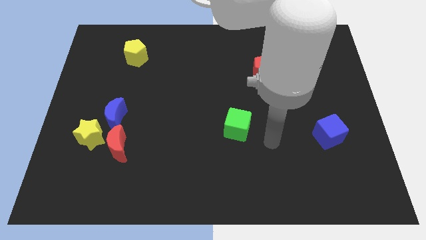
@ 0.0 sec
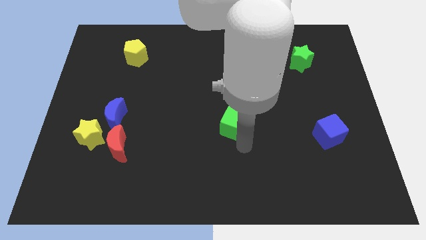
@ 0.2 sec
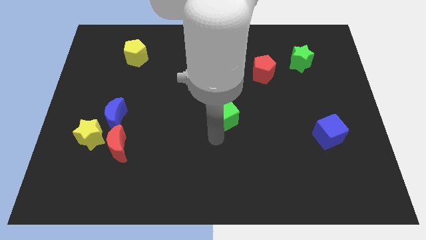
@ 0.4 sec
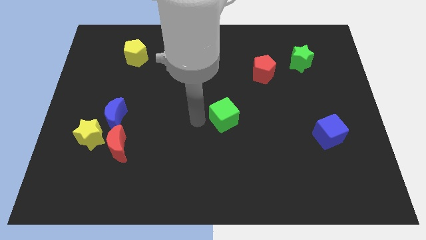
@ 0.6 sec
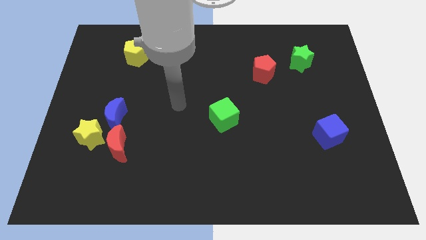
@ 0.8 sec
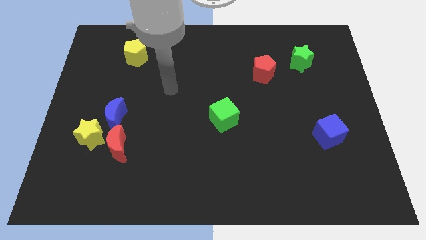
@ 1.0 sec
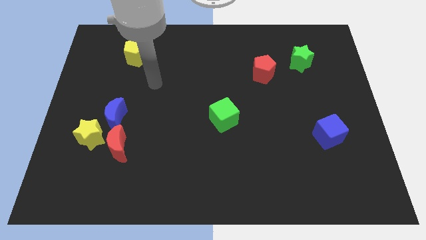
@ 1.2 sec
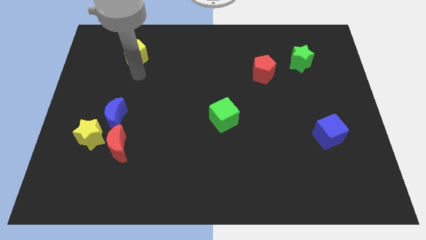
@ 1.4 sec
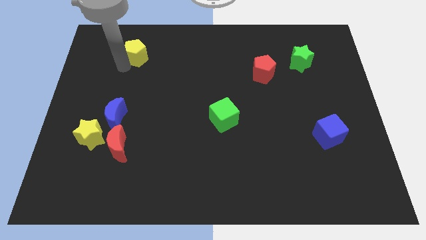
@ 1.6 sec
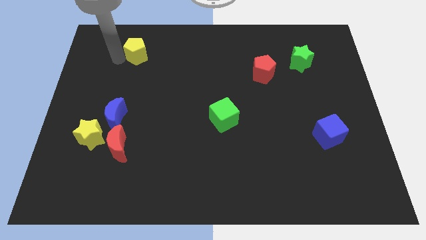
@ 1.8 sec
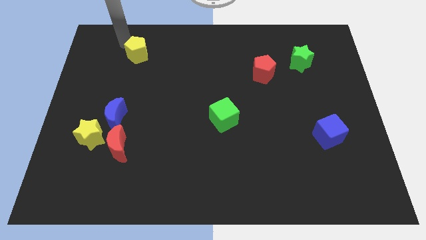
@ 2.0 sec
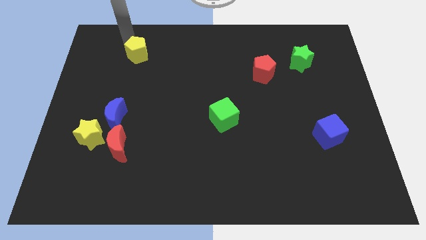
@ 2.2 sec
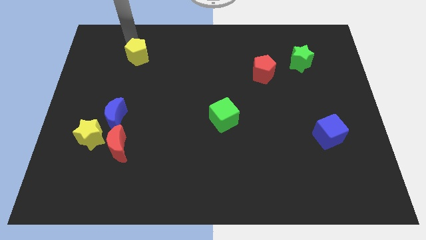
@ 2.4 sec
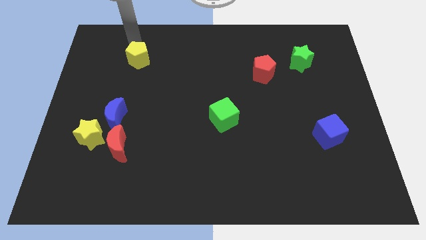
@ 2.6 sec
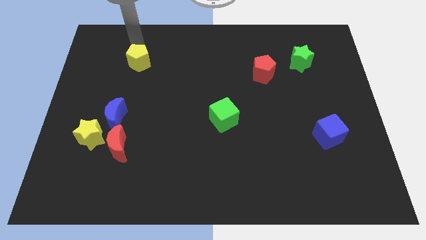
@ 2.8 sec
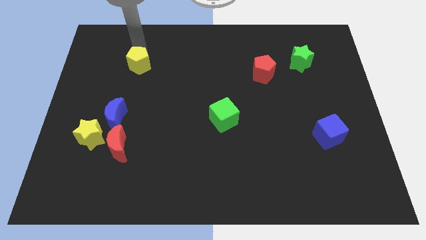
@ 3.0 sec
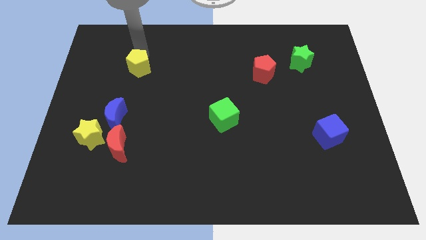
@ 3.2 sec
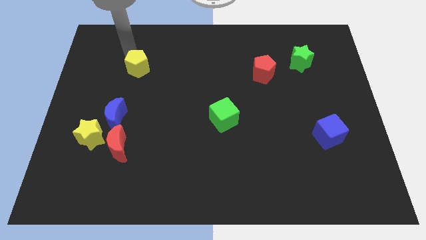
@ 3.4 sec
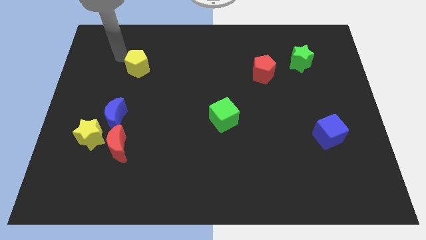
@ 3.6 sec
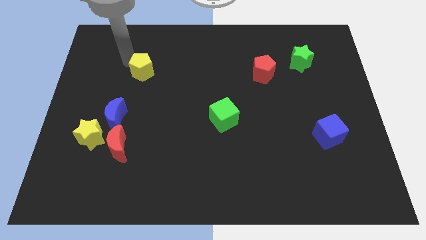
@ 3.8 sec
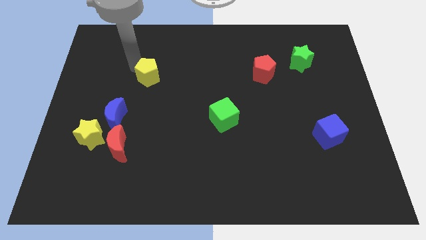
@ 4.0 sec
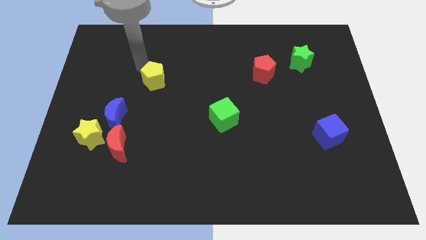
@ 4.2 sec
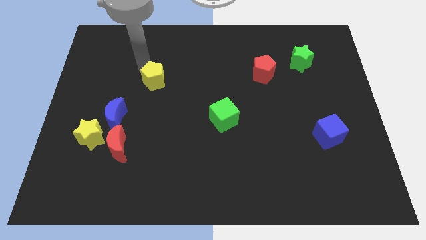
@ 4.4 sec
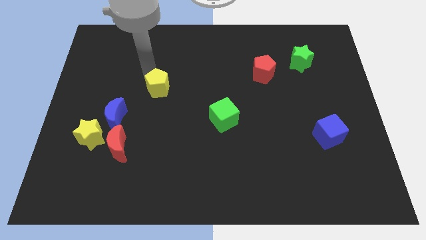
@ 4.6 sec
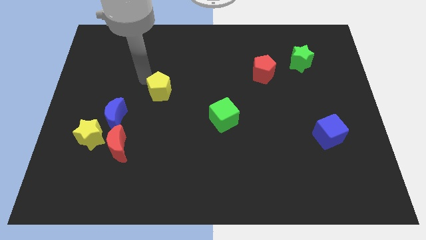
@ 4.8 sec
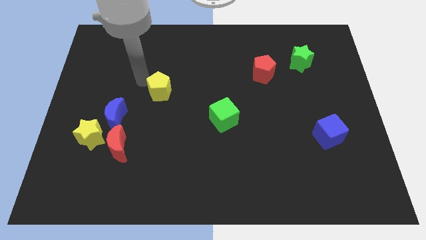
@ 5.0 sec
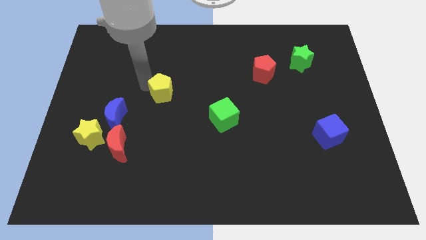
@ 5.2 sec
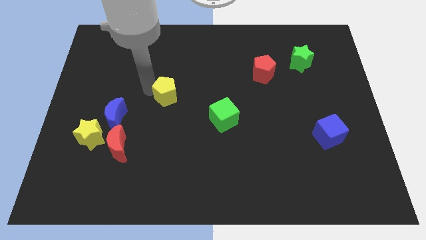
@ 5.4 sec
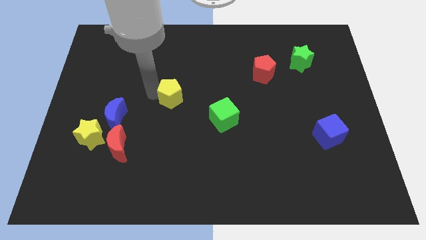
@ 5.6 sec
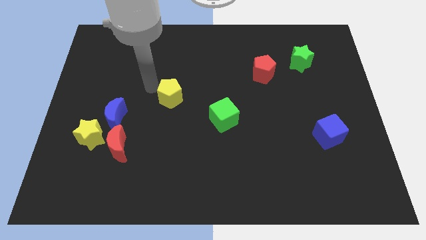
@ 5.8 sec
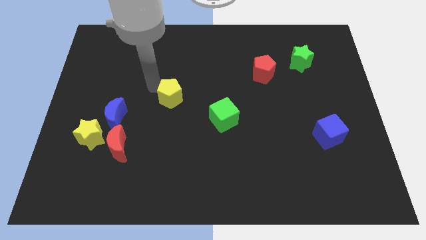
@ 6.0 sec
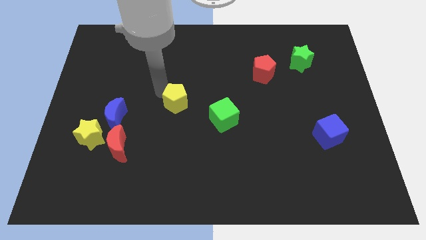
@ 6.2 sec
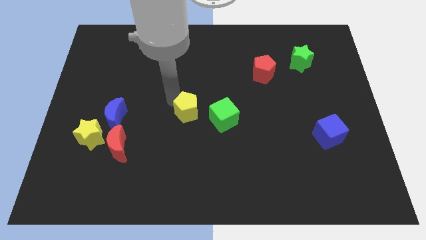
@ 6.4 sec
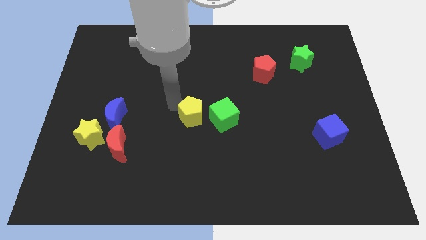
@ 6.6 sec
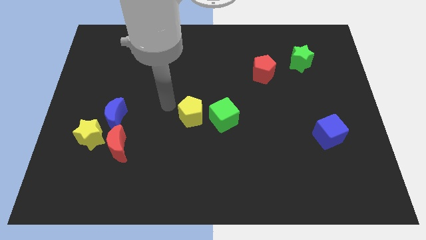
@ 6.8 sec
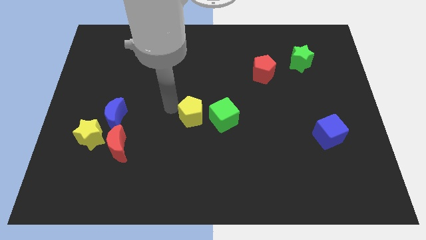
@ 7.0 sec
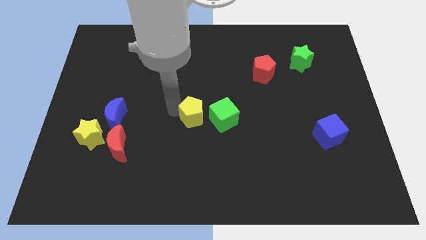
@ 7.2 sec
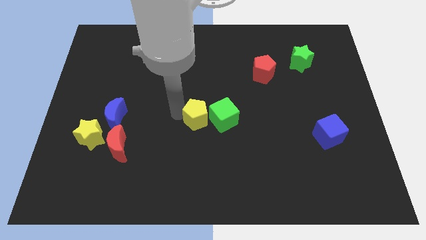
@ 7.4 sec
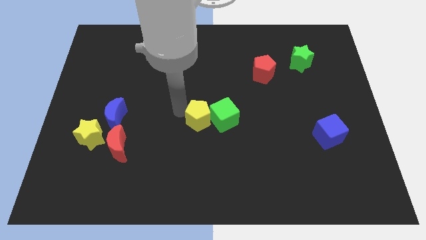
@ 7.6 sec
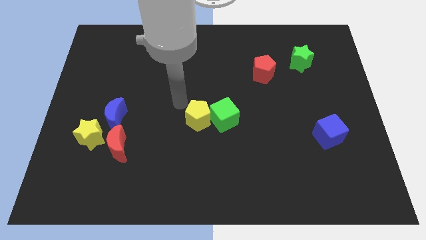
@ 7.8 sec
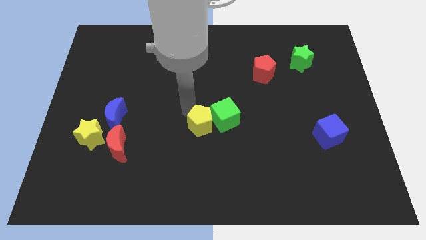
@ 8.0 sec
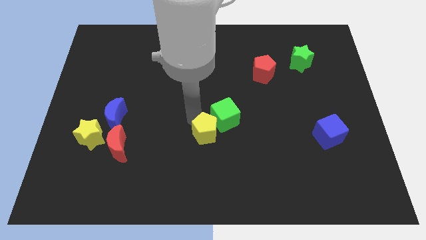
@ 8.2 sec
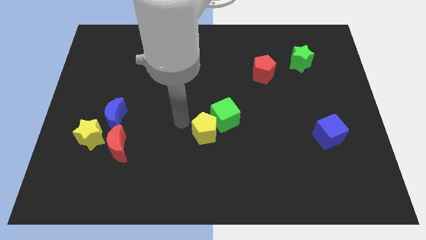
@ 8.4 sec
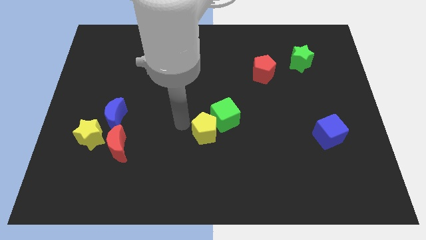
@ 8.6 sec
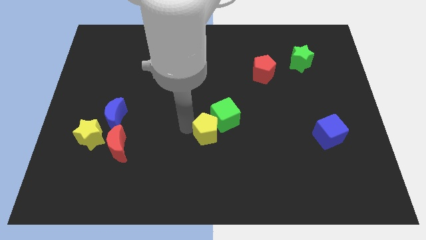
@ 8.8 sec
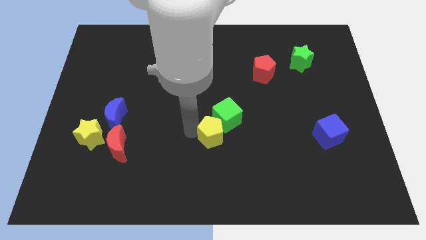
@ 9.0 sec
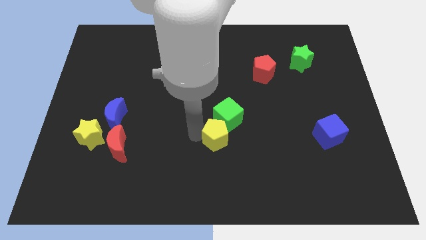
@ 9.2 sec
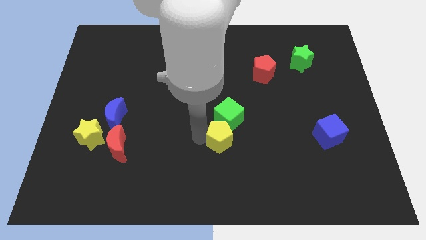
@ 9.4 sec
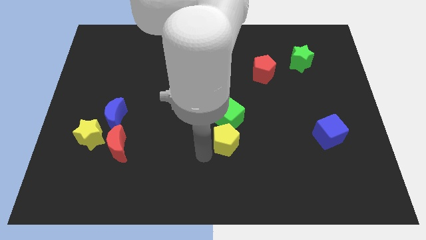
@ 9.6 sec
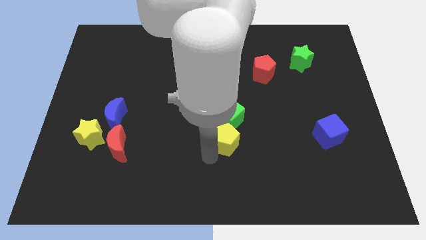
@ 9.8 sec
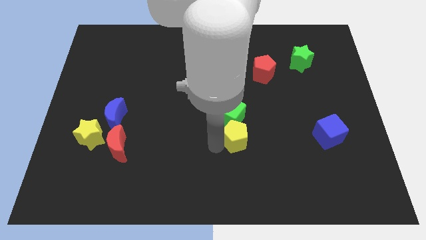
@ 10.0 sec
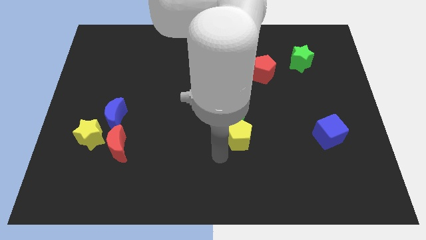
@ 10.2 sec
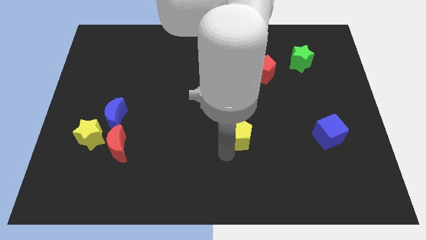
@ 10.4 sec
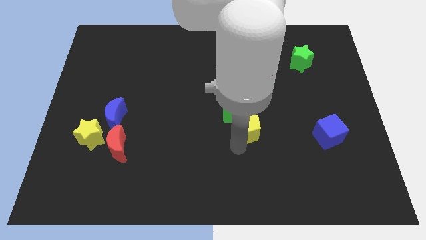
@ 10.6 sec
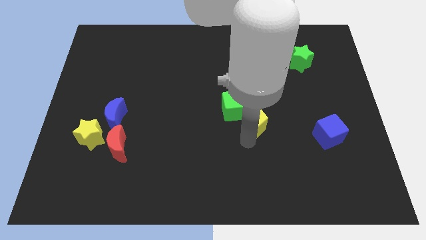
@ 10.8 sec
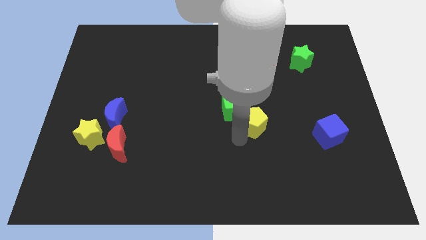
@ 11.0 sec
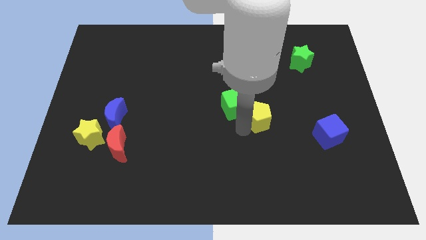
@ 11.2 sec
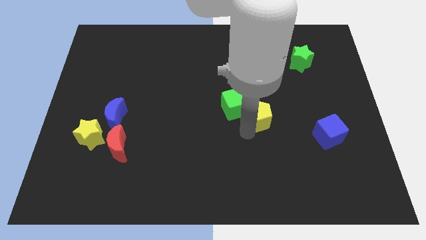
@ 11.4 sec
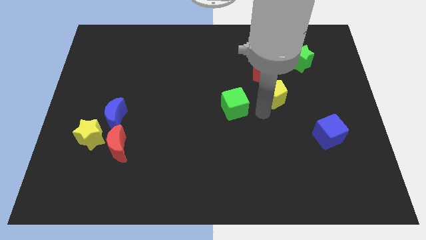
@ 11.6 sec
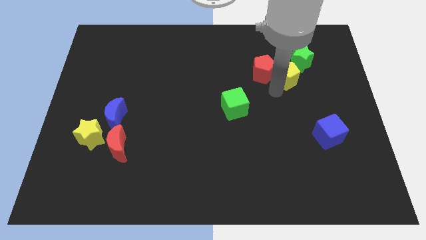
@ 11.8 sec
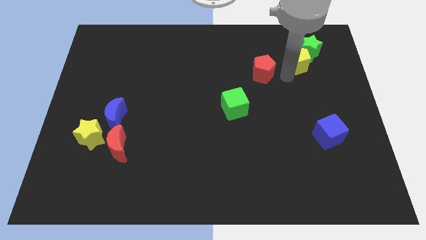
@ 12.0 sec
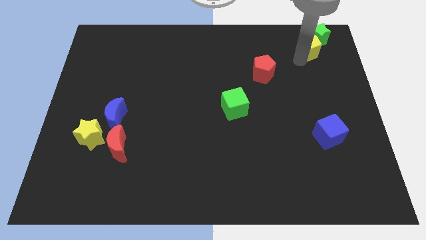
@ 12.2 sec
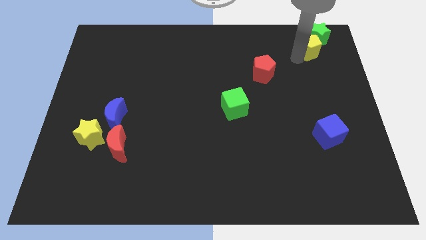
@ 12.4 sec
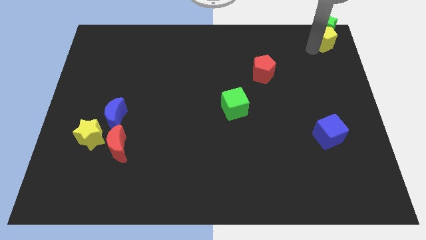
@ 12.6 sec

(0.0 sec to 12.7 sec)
push the yellow pentagon to the upper right corner
